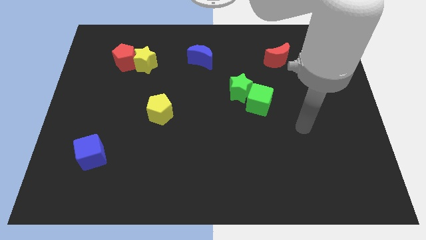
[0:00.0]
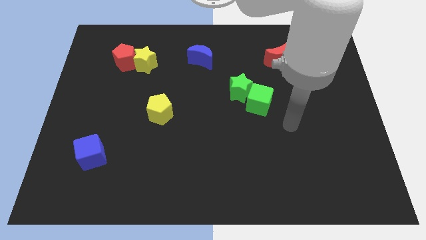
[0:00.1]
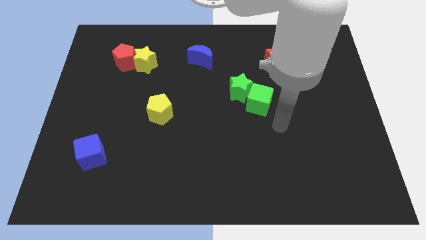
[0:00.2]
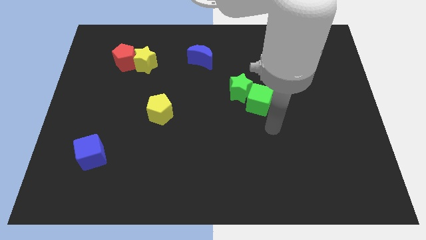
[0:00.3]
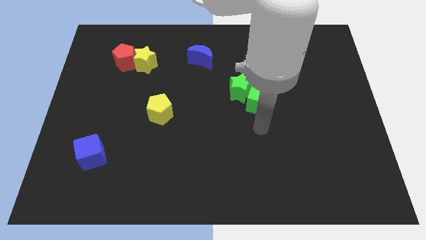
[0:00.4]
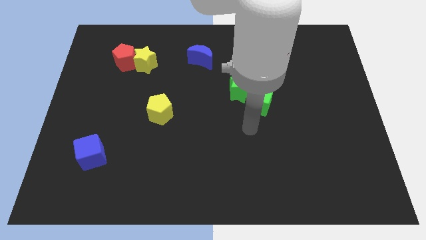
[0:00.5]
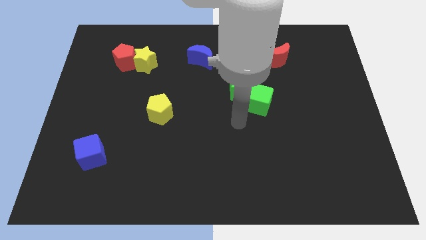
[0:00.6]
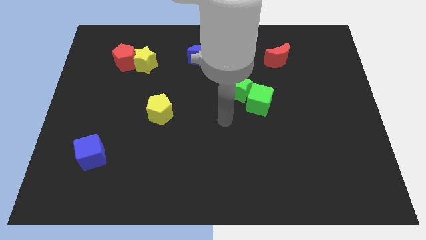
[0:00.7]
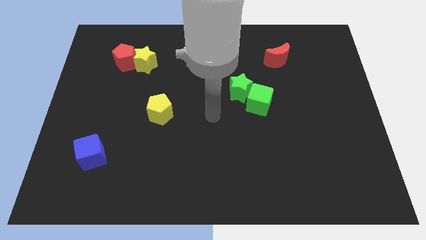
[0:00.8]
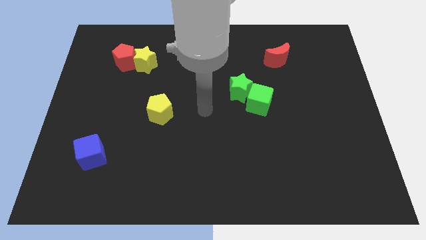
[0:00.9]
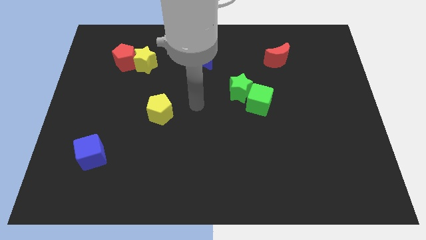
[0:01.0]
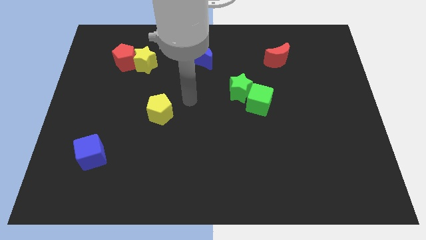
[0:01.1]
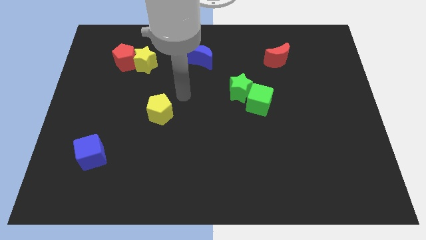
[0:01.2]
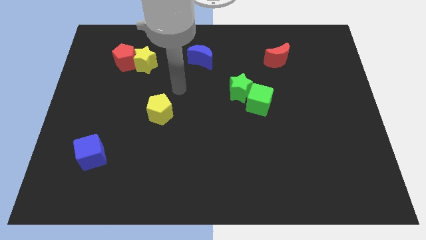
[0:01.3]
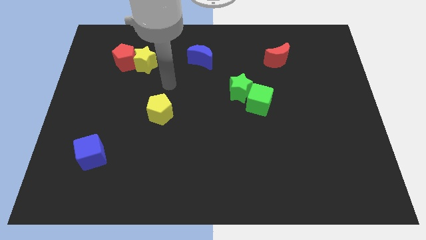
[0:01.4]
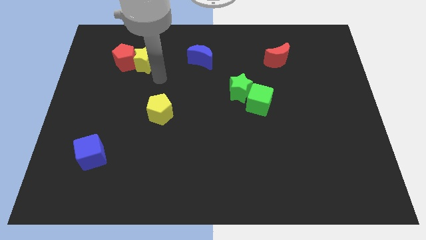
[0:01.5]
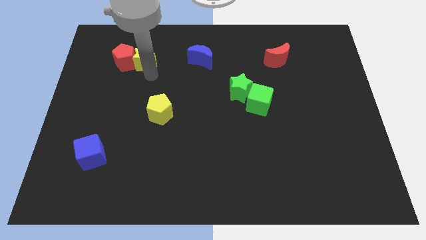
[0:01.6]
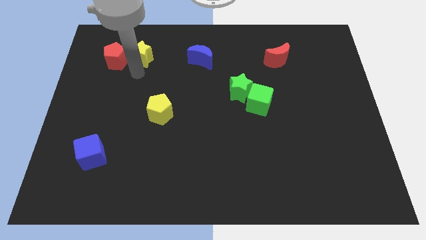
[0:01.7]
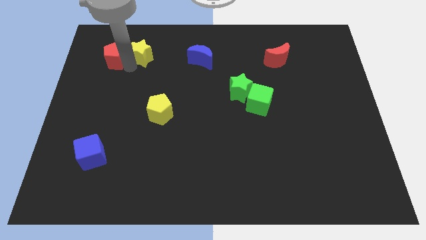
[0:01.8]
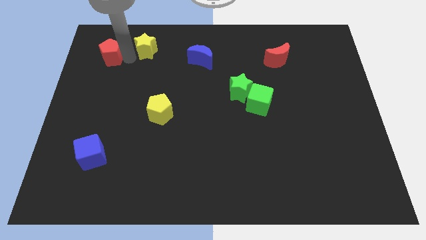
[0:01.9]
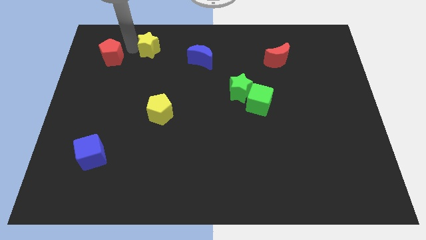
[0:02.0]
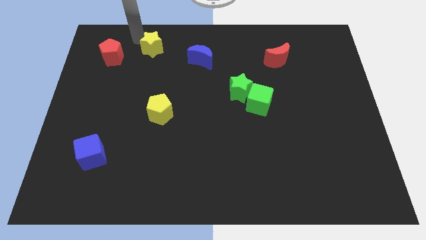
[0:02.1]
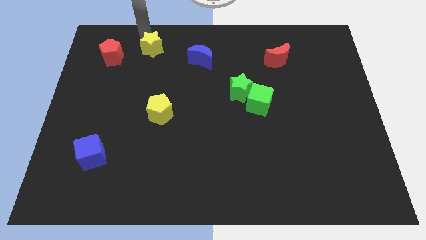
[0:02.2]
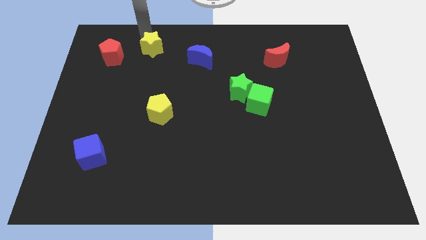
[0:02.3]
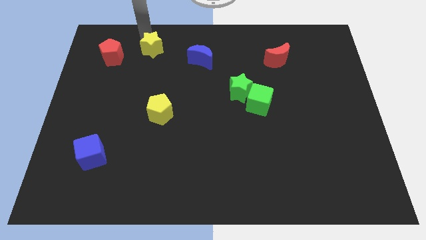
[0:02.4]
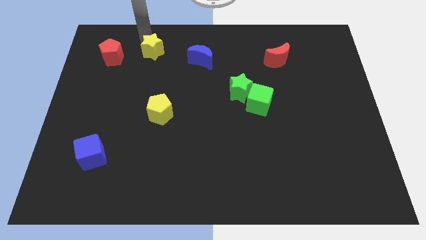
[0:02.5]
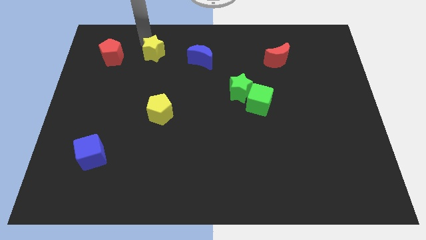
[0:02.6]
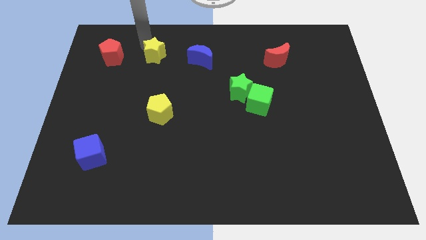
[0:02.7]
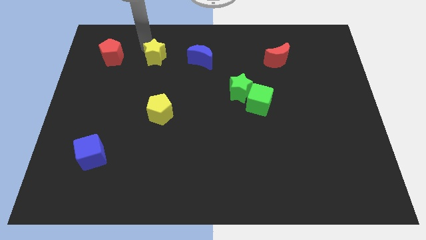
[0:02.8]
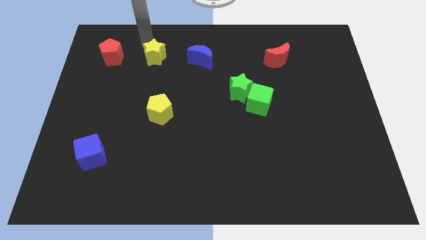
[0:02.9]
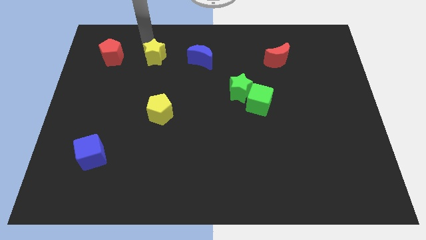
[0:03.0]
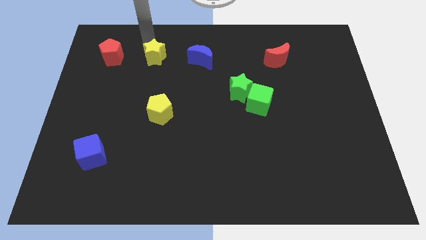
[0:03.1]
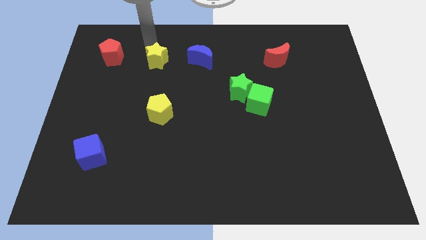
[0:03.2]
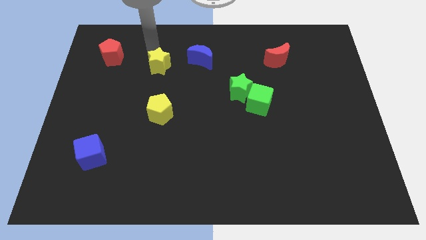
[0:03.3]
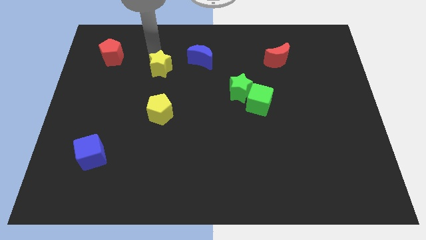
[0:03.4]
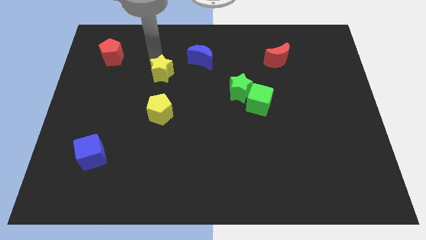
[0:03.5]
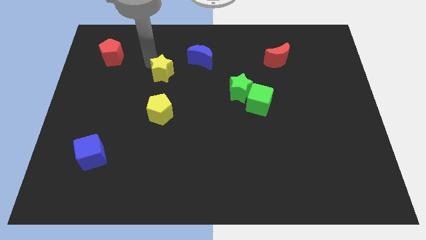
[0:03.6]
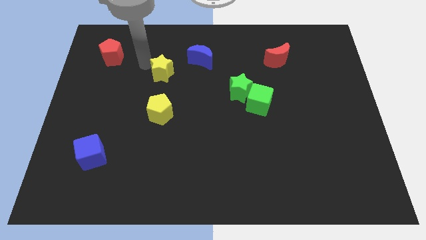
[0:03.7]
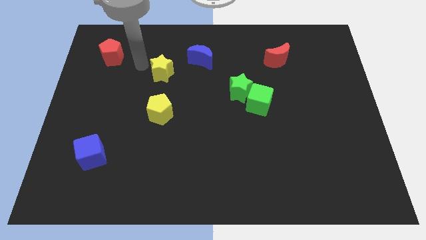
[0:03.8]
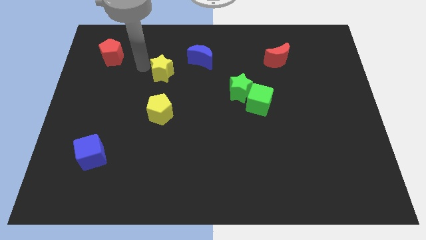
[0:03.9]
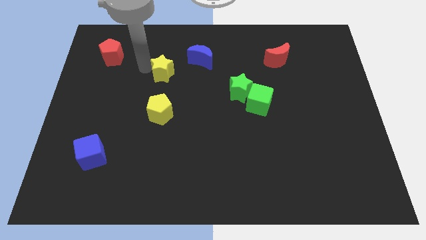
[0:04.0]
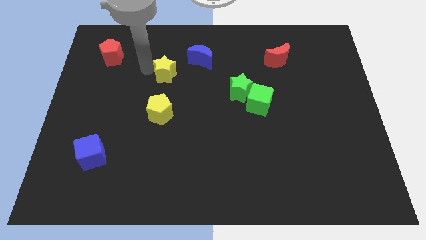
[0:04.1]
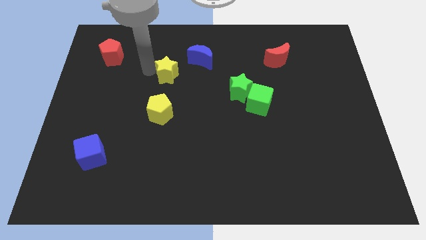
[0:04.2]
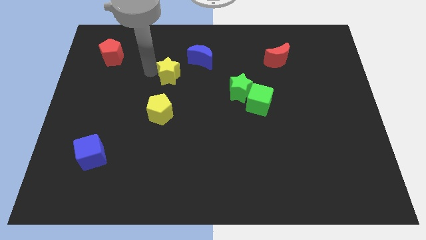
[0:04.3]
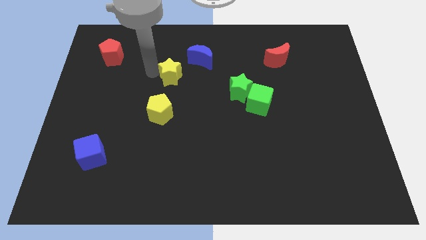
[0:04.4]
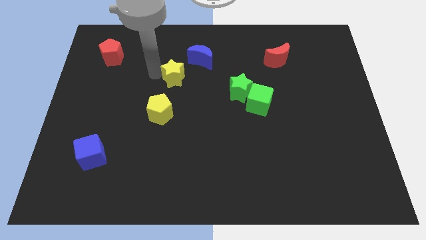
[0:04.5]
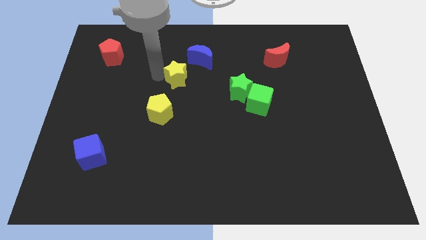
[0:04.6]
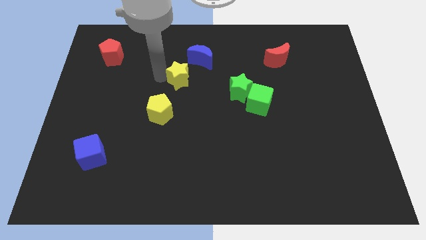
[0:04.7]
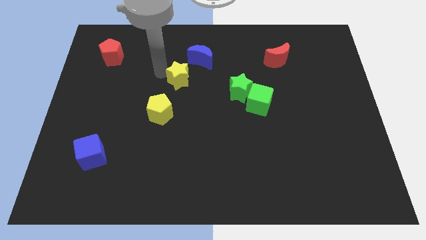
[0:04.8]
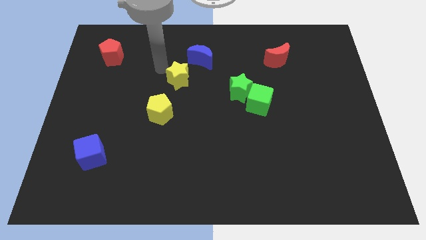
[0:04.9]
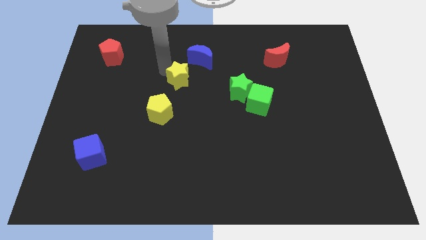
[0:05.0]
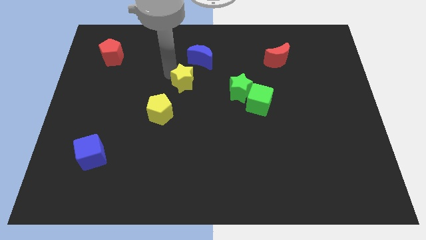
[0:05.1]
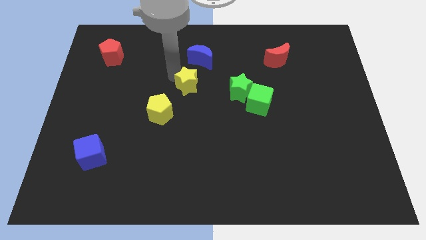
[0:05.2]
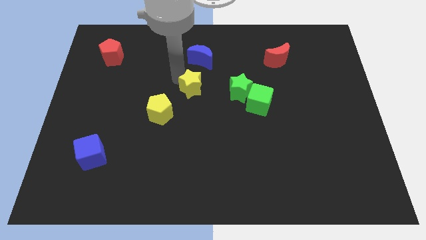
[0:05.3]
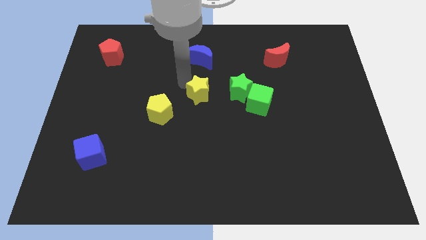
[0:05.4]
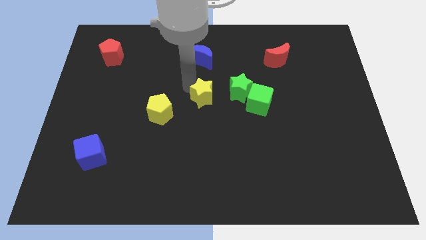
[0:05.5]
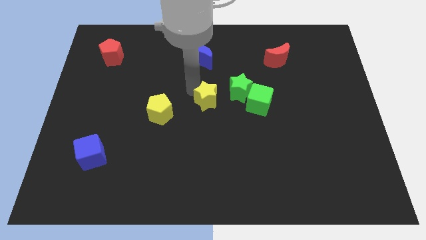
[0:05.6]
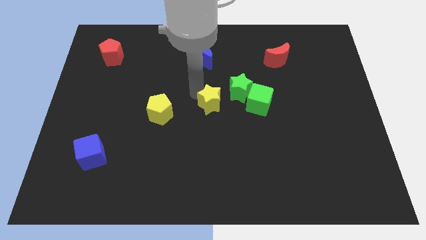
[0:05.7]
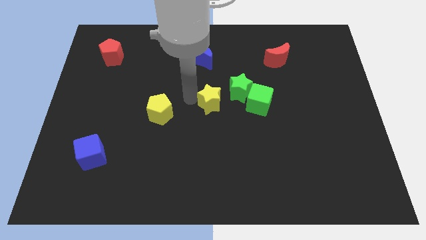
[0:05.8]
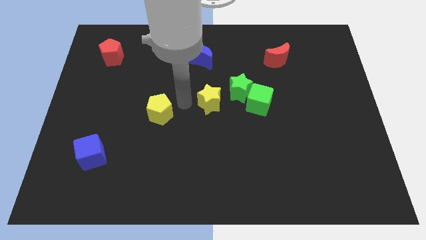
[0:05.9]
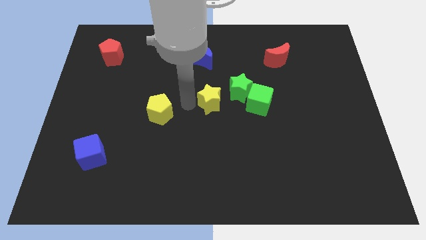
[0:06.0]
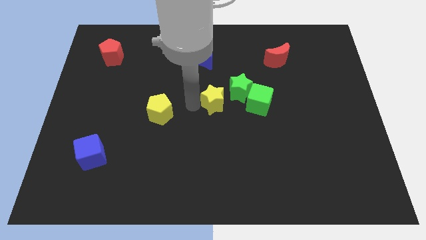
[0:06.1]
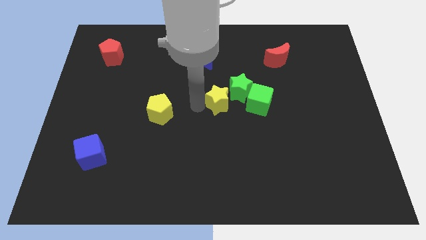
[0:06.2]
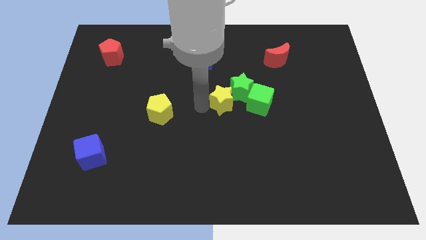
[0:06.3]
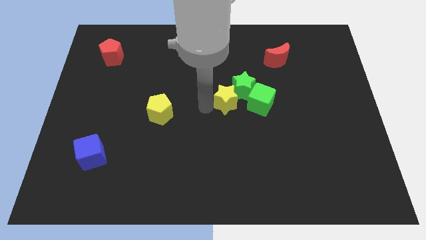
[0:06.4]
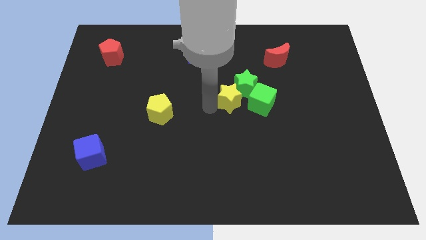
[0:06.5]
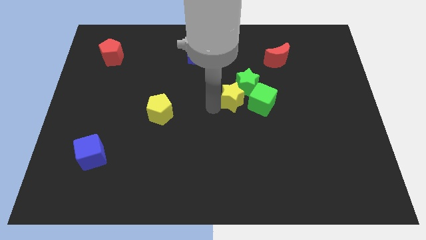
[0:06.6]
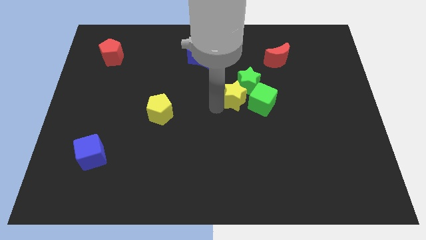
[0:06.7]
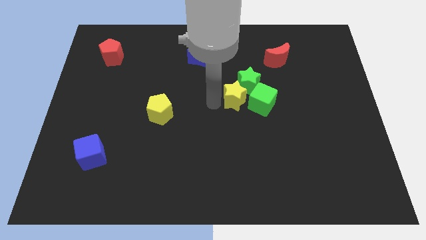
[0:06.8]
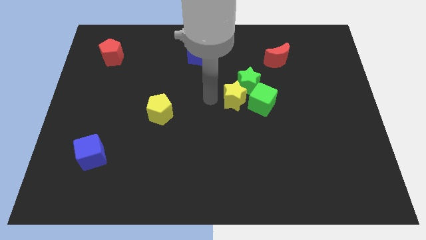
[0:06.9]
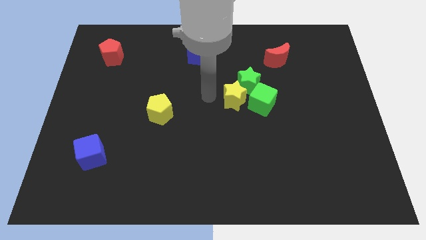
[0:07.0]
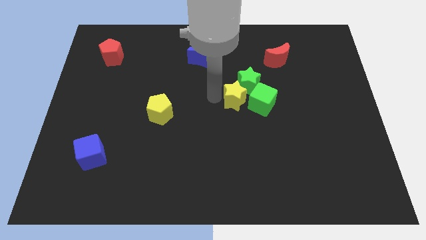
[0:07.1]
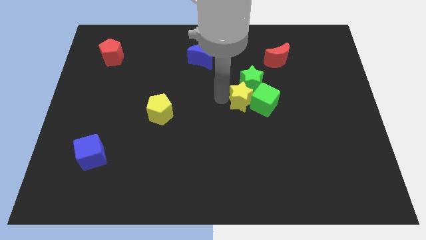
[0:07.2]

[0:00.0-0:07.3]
push the yellow star close to the green cube
